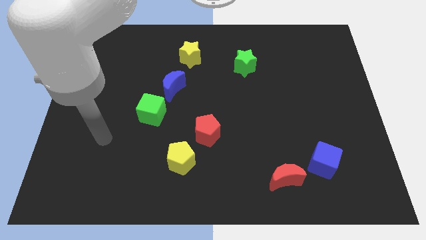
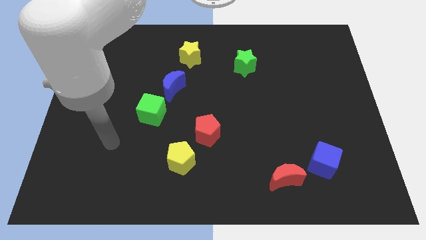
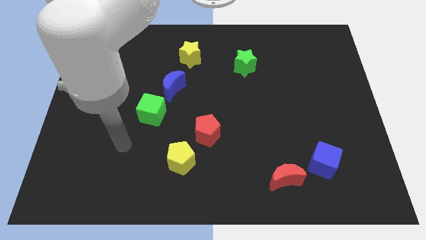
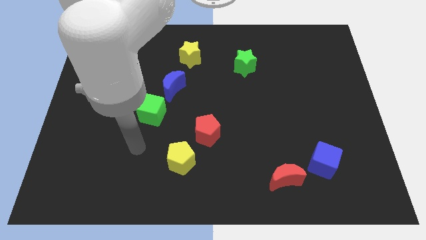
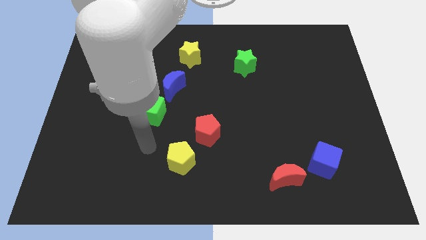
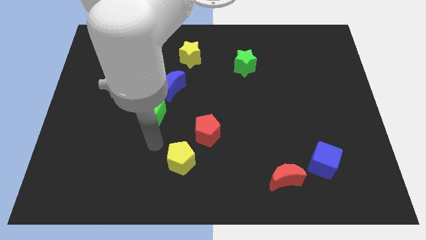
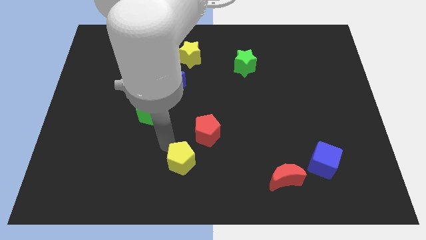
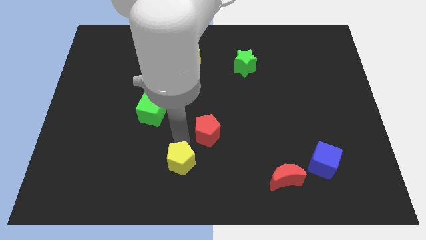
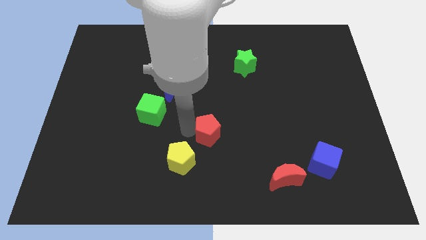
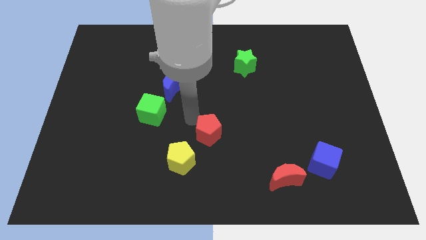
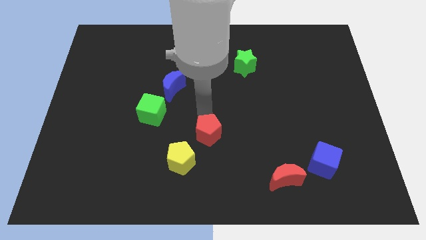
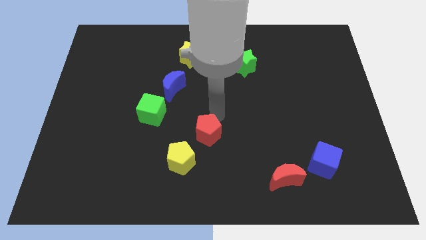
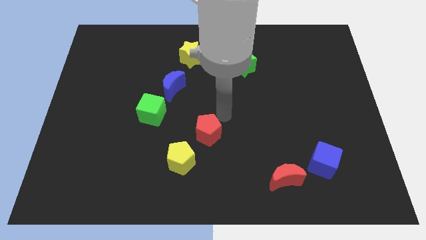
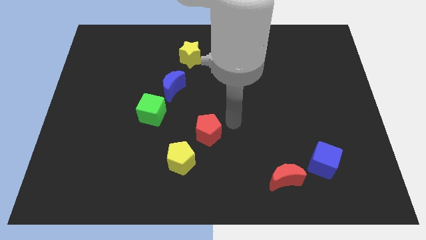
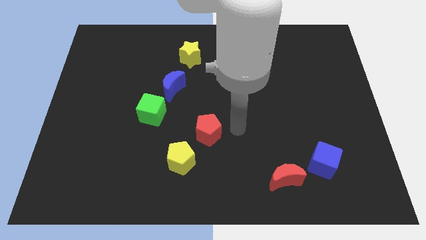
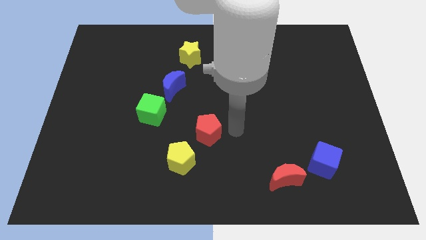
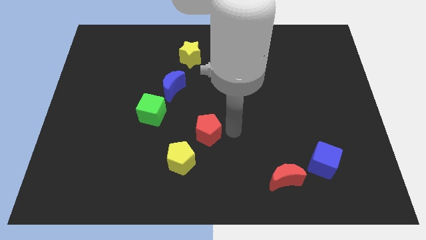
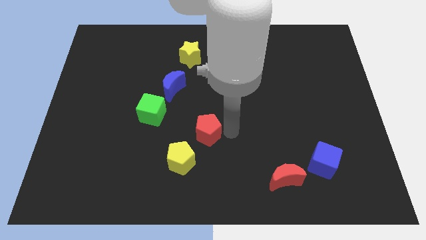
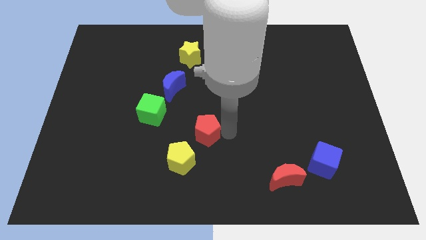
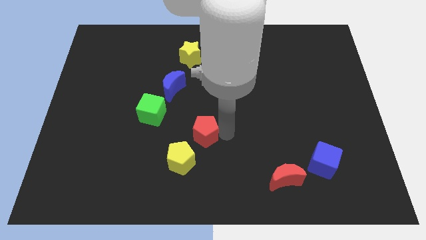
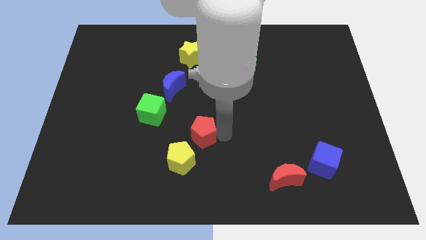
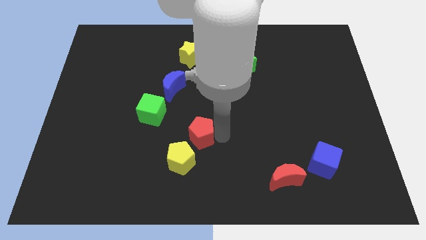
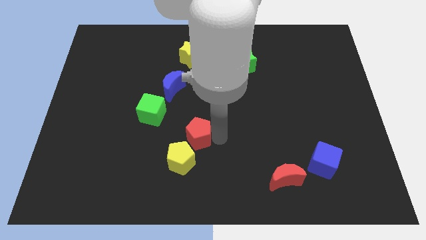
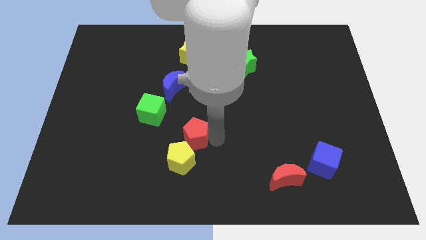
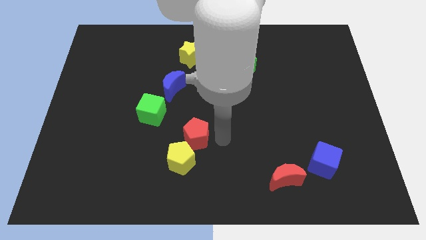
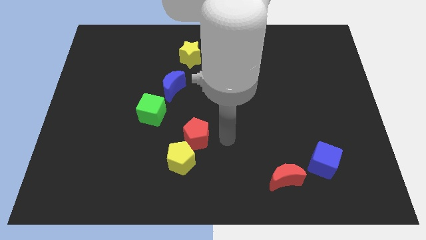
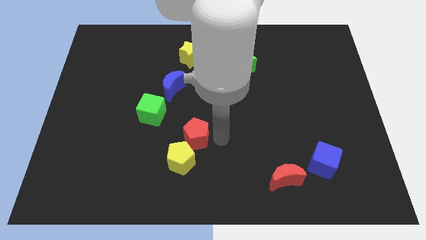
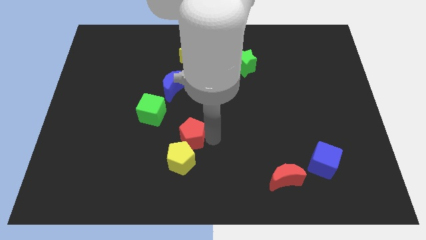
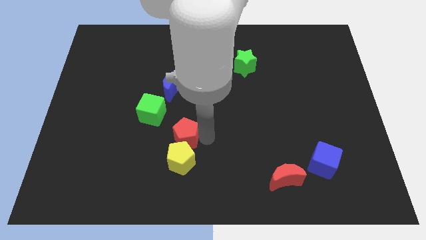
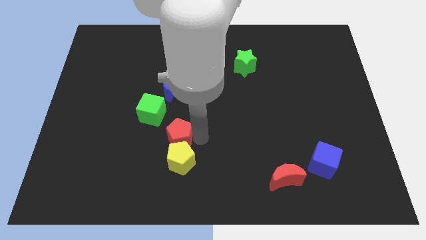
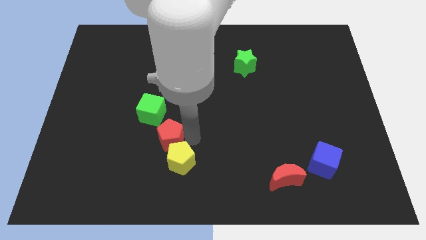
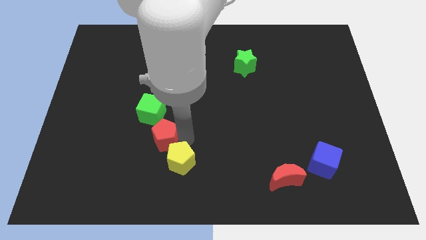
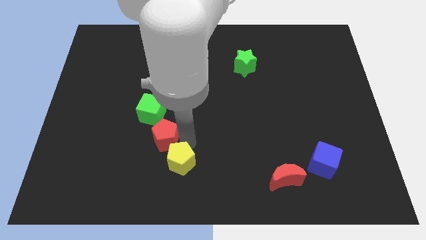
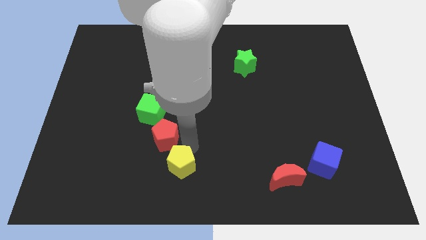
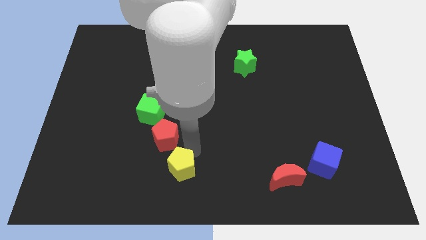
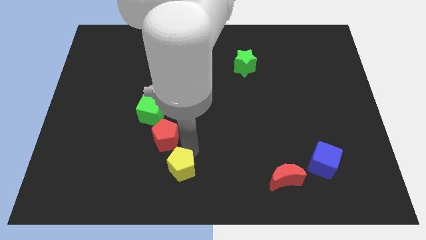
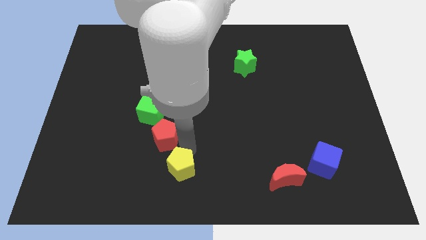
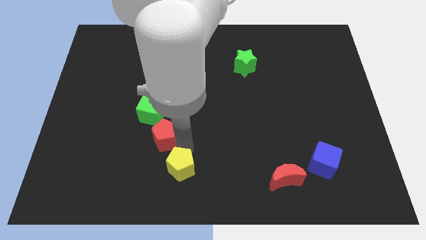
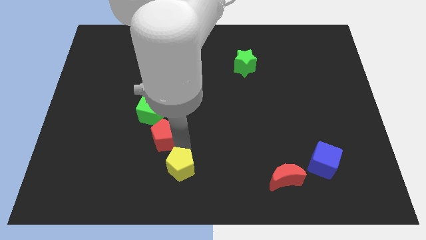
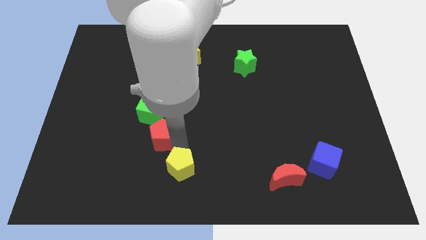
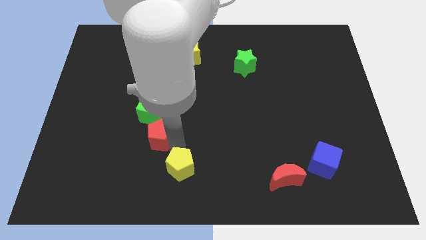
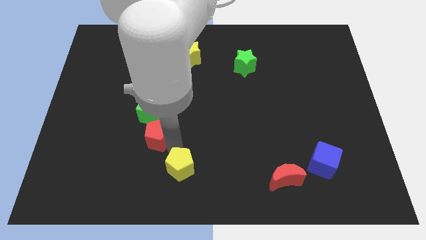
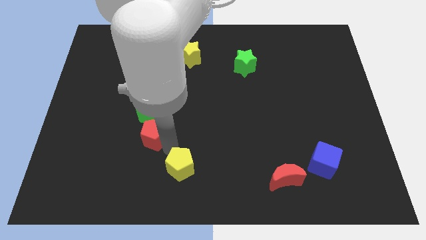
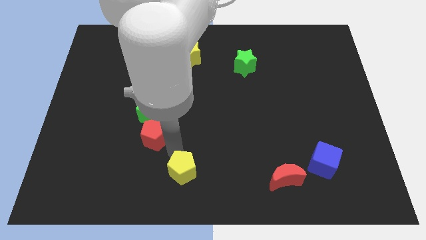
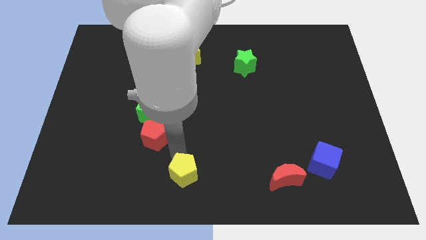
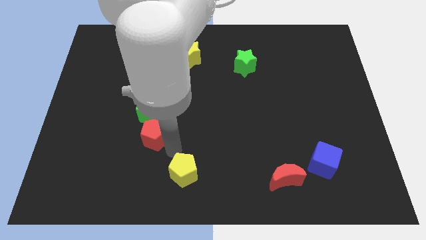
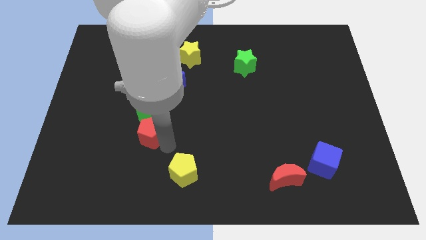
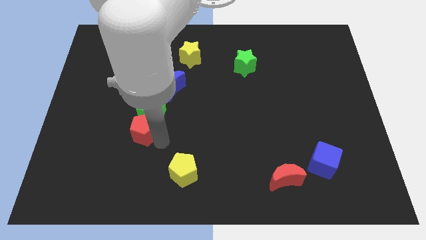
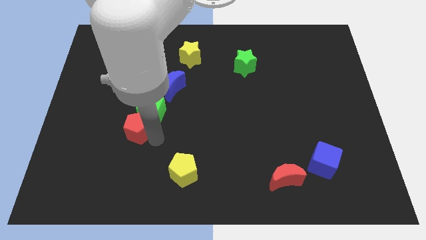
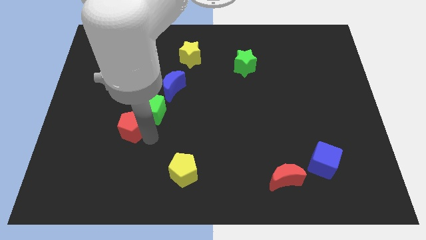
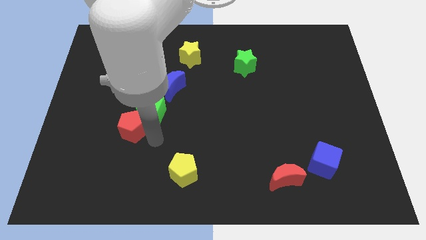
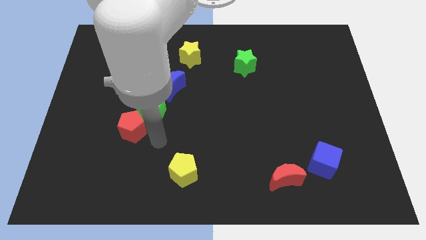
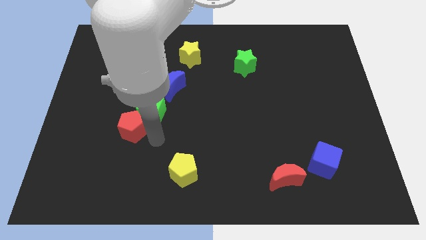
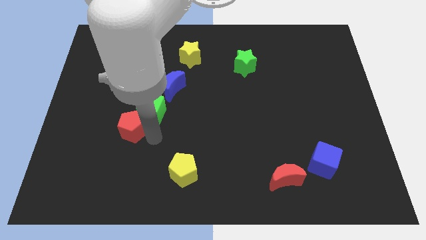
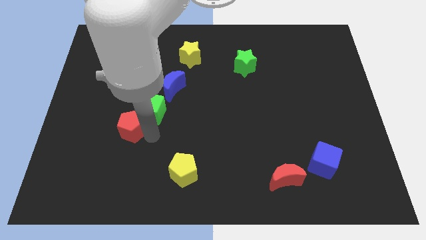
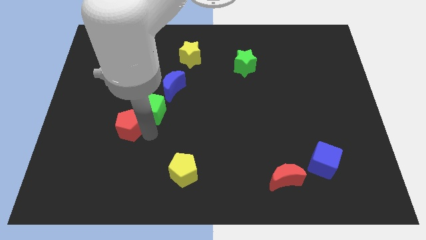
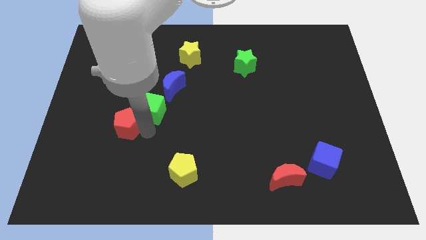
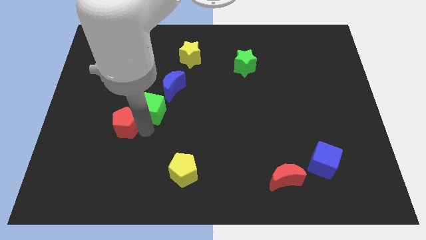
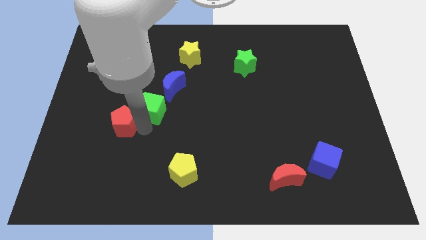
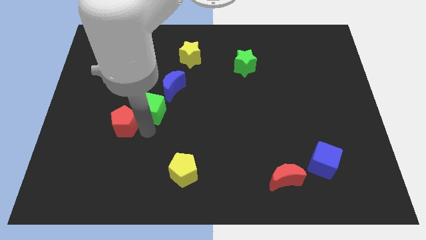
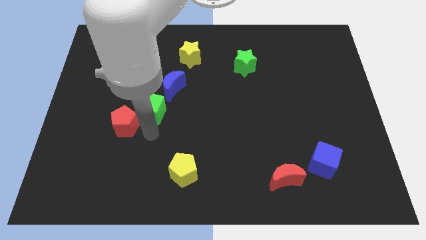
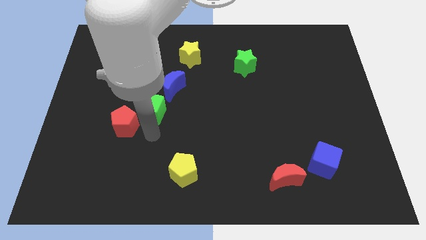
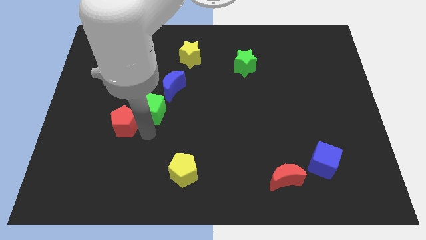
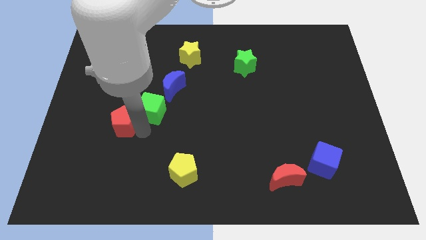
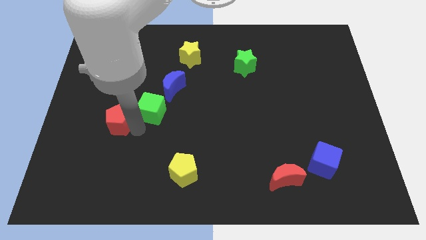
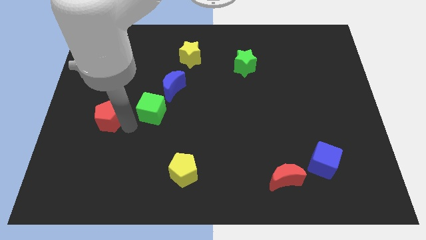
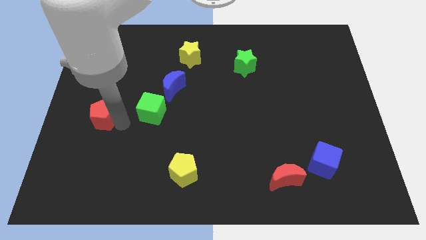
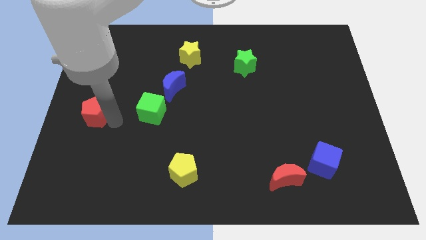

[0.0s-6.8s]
slide the red pentagon to the center left
